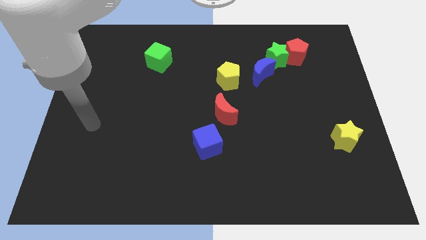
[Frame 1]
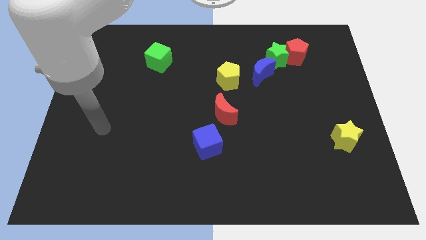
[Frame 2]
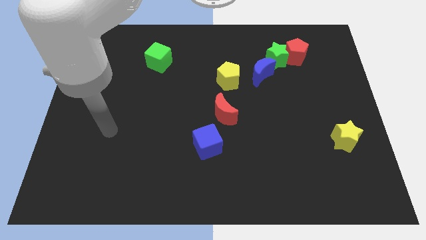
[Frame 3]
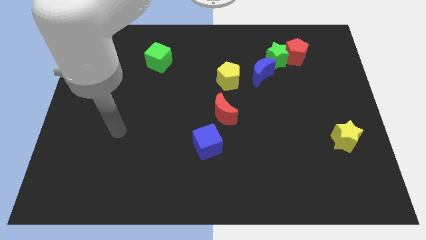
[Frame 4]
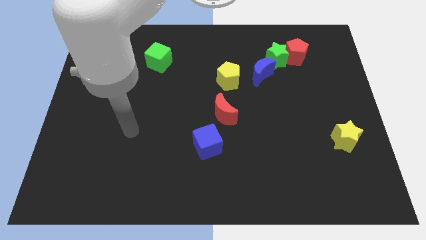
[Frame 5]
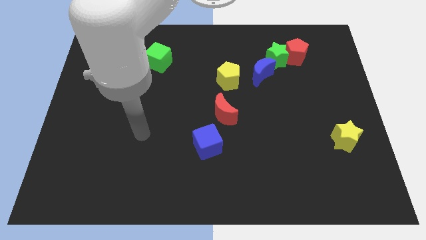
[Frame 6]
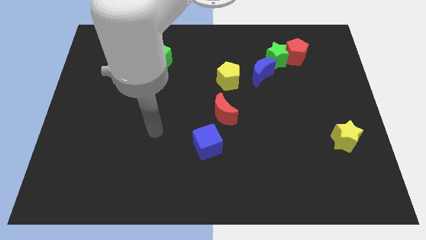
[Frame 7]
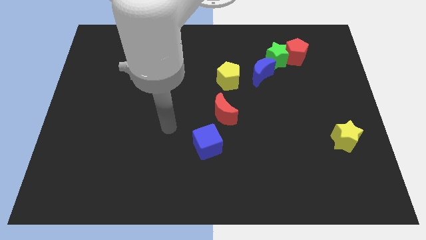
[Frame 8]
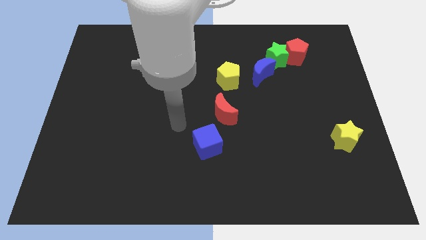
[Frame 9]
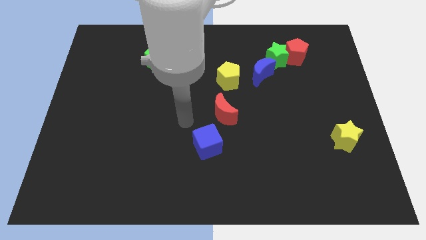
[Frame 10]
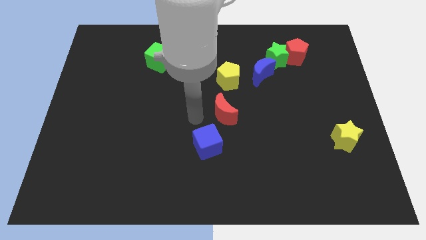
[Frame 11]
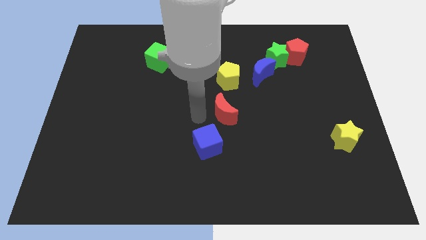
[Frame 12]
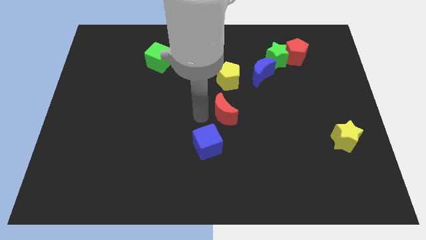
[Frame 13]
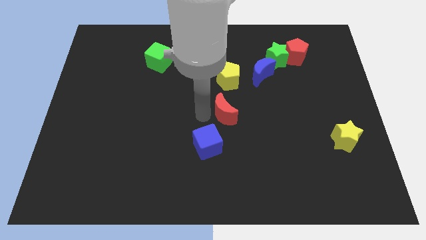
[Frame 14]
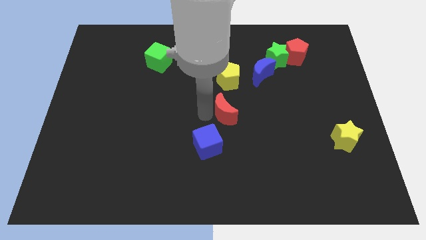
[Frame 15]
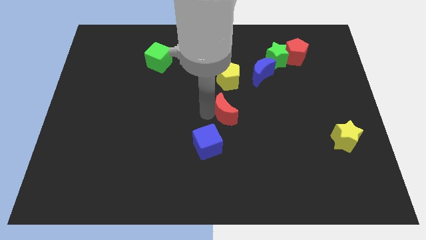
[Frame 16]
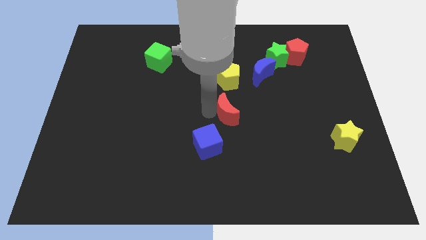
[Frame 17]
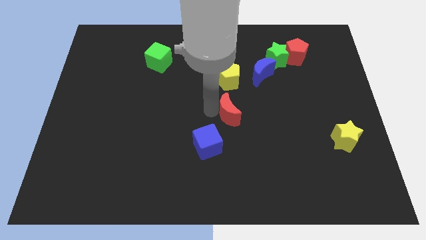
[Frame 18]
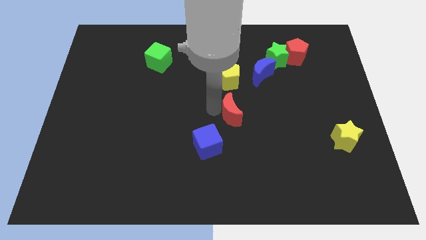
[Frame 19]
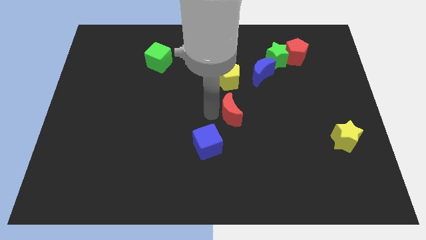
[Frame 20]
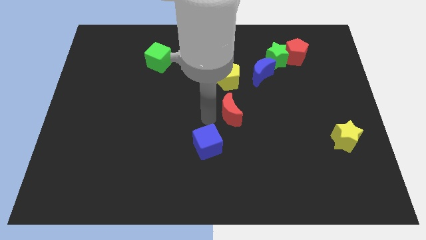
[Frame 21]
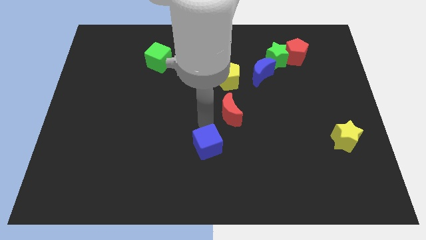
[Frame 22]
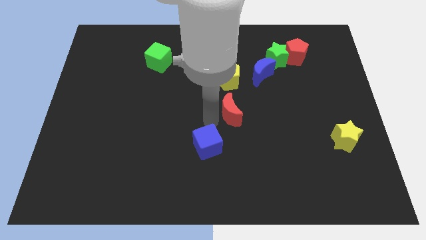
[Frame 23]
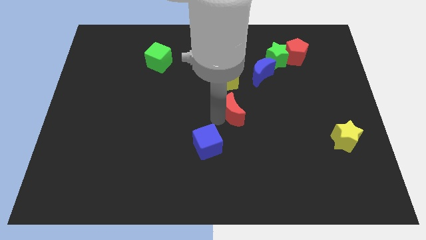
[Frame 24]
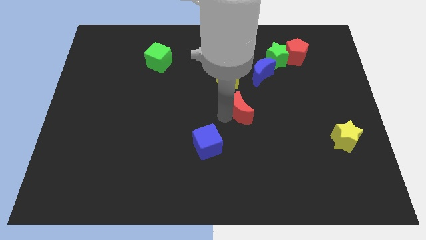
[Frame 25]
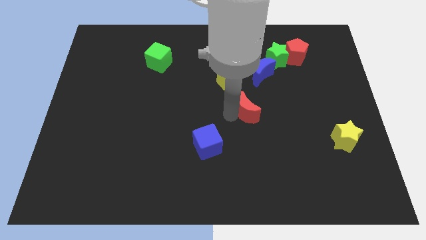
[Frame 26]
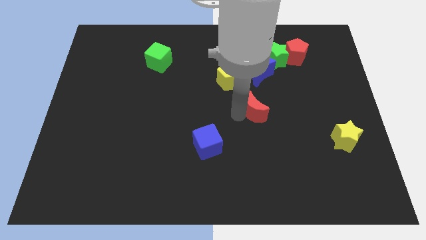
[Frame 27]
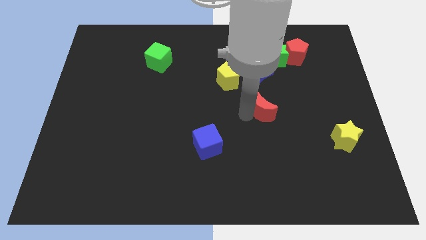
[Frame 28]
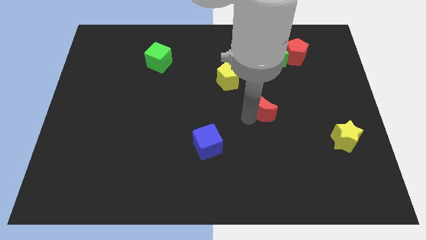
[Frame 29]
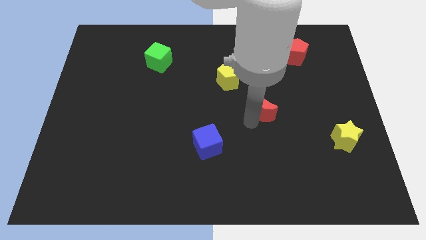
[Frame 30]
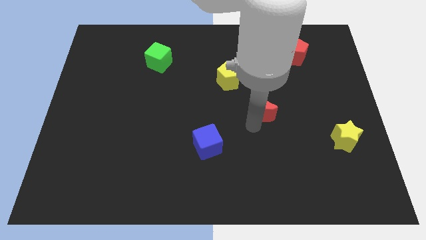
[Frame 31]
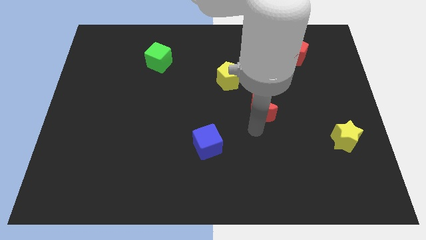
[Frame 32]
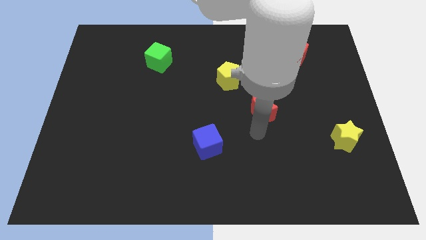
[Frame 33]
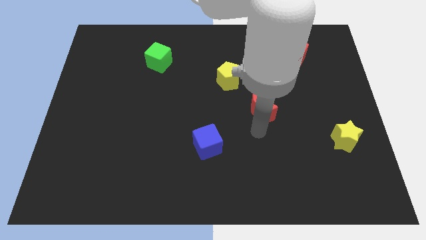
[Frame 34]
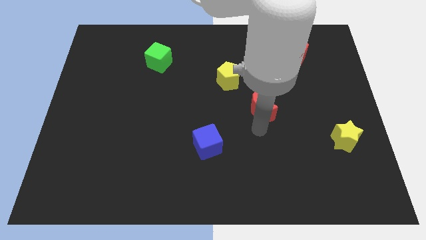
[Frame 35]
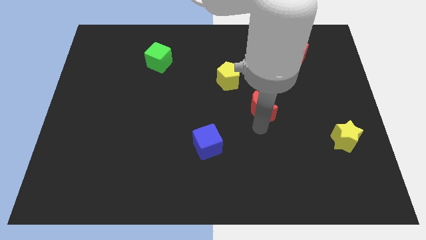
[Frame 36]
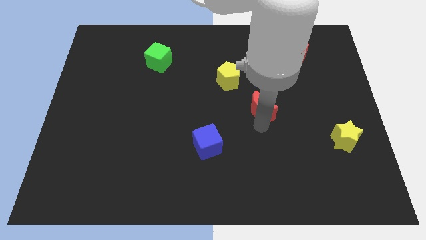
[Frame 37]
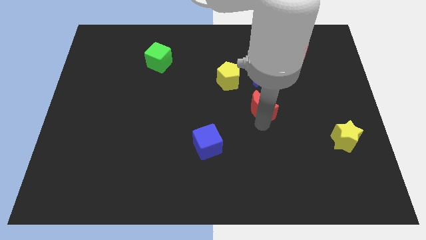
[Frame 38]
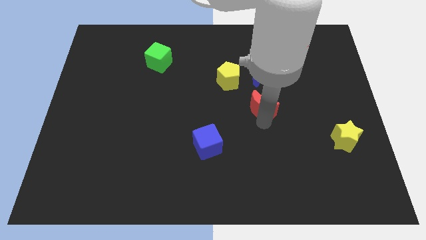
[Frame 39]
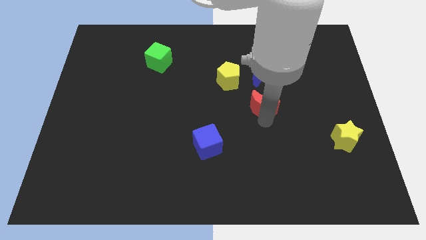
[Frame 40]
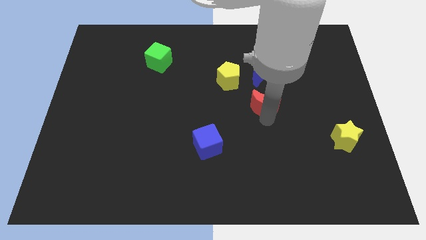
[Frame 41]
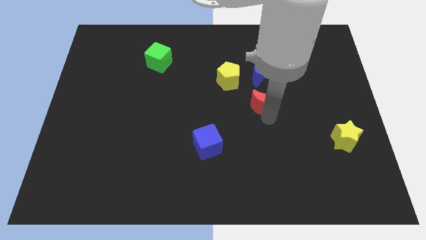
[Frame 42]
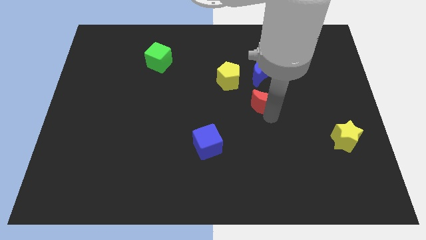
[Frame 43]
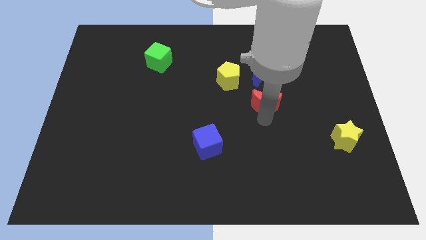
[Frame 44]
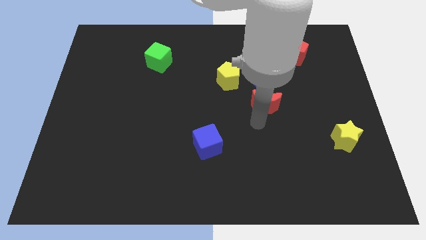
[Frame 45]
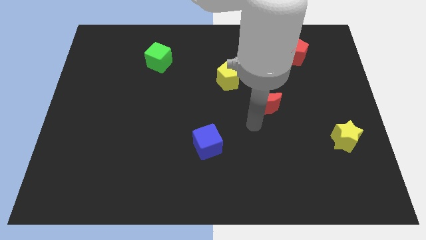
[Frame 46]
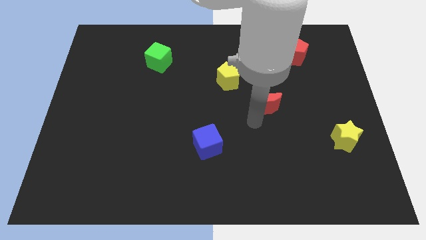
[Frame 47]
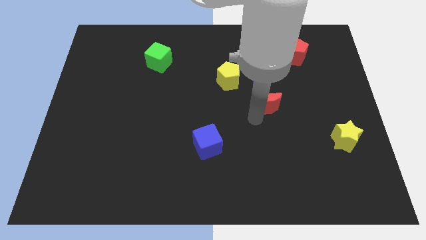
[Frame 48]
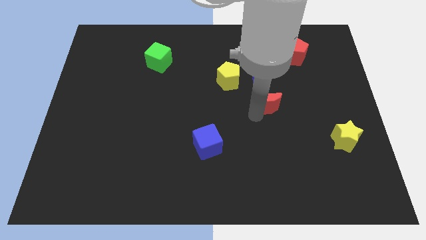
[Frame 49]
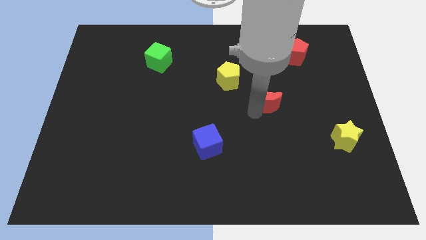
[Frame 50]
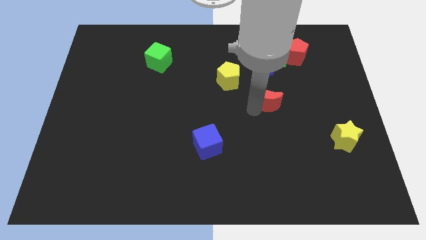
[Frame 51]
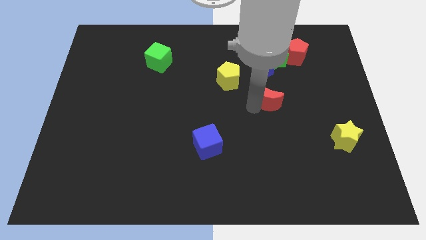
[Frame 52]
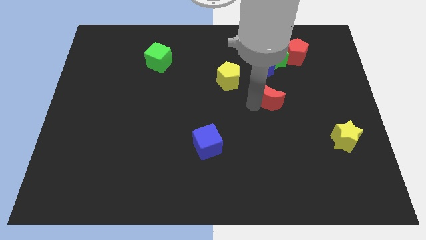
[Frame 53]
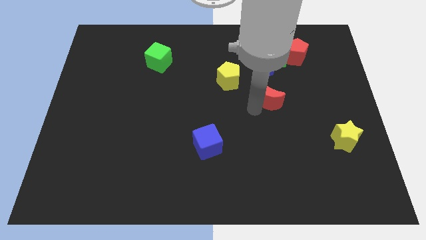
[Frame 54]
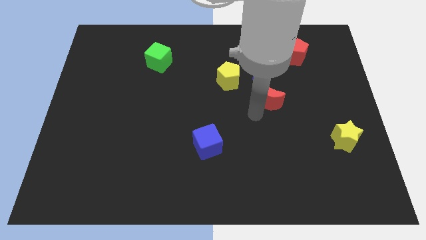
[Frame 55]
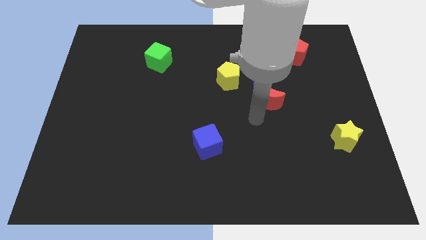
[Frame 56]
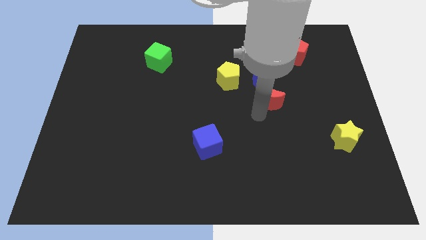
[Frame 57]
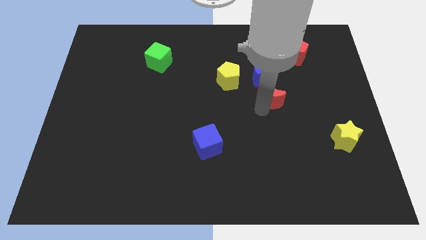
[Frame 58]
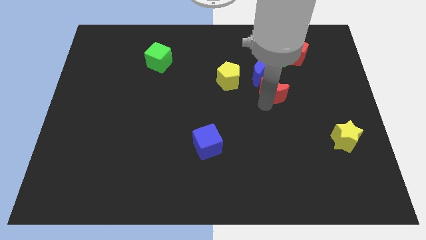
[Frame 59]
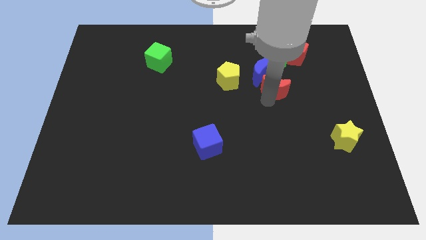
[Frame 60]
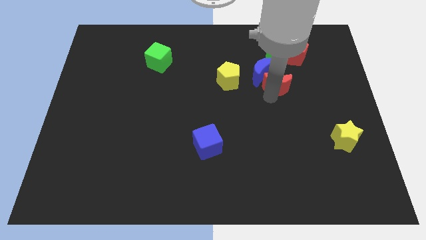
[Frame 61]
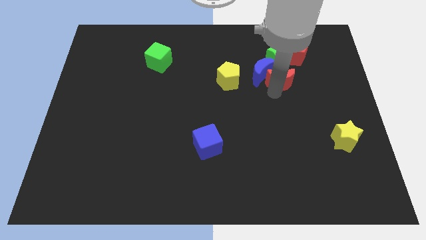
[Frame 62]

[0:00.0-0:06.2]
push the red moon to the bottom left side of the red pentagon

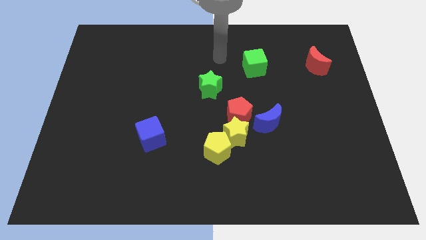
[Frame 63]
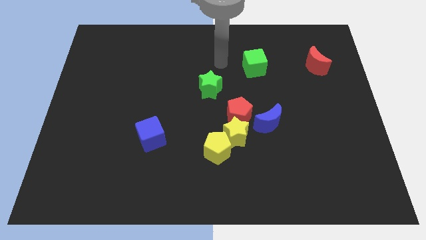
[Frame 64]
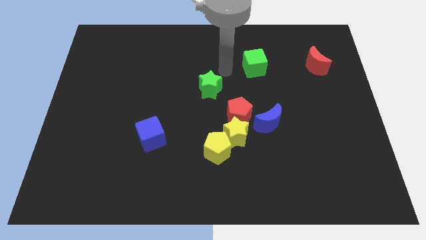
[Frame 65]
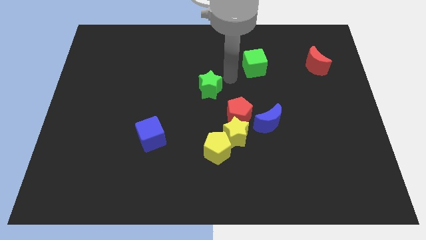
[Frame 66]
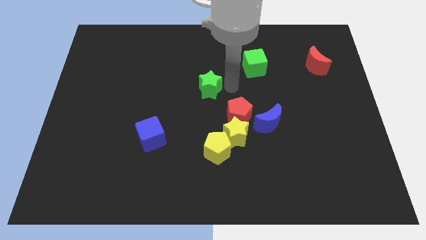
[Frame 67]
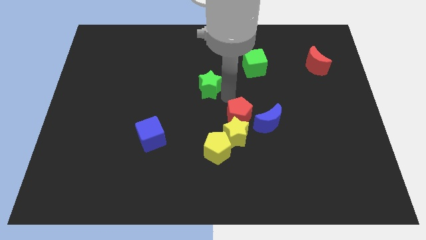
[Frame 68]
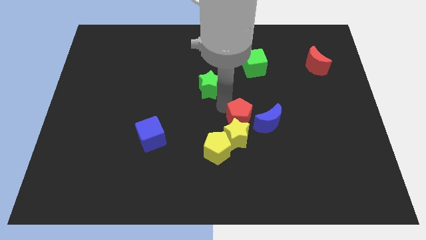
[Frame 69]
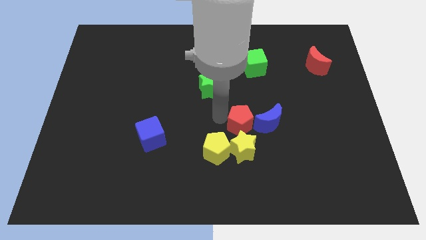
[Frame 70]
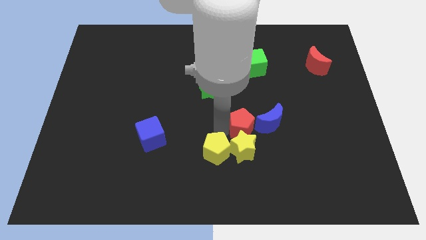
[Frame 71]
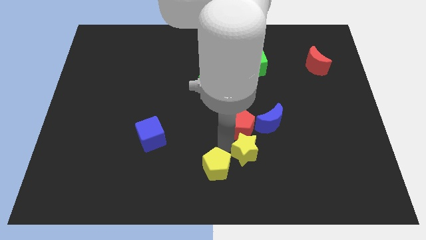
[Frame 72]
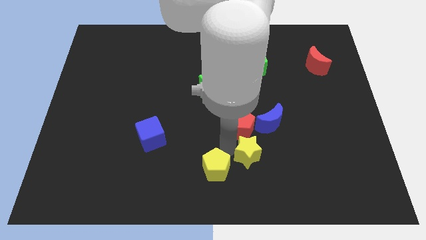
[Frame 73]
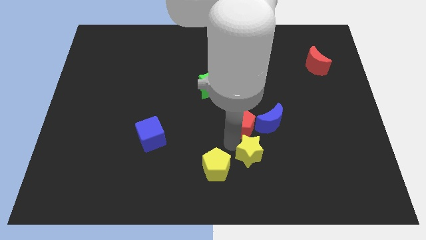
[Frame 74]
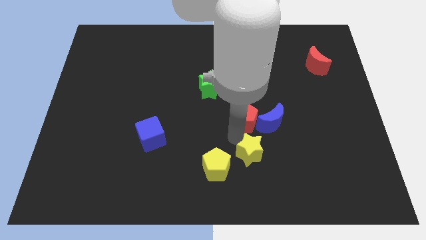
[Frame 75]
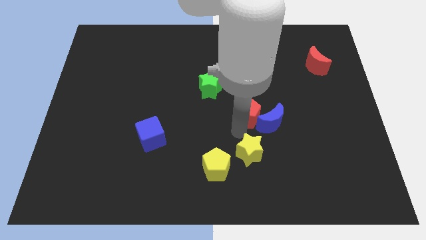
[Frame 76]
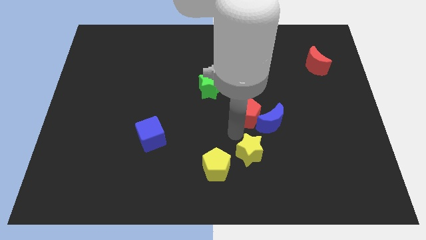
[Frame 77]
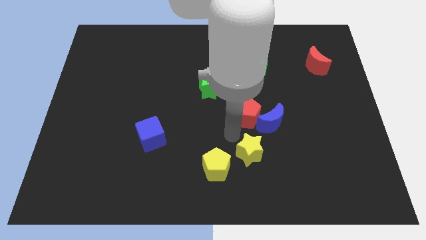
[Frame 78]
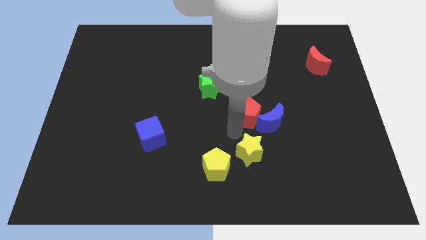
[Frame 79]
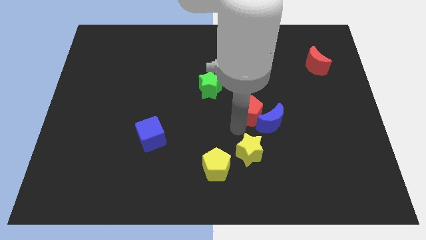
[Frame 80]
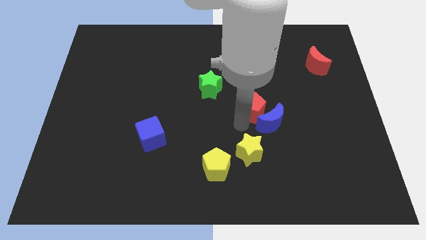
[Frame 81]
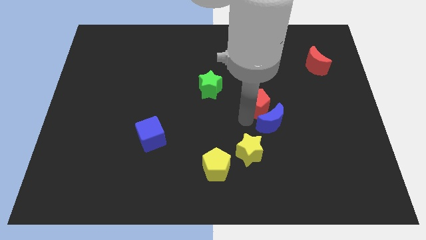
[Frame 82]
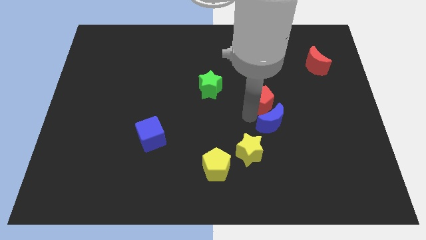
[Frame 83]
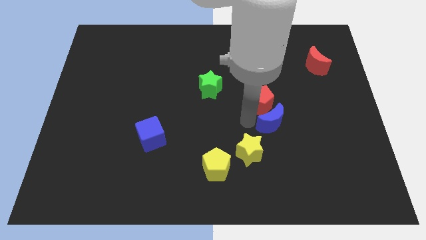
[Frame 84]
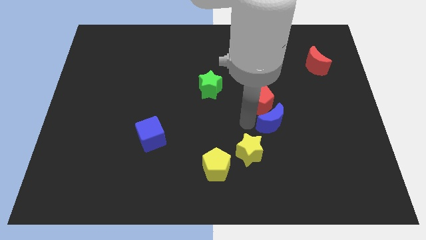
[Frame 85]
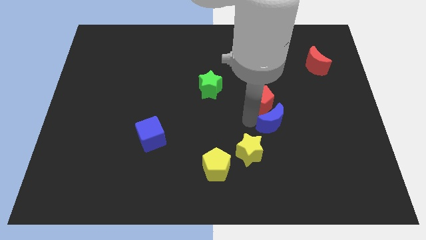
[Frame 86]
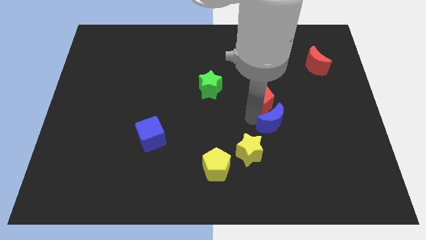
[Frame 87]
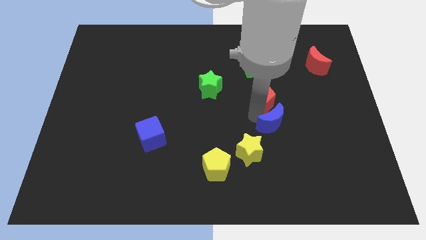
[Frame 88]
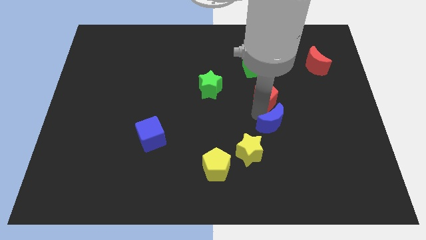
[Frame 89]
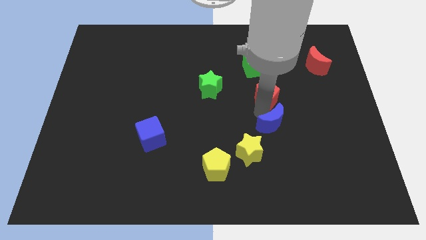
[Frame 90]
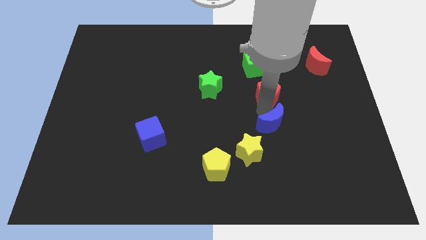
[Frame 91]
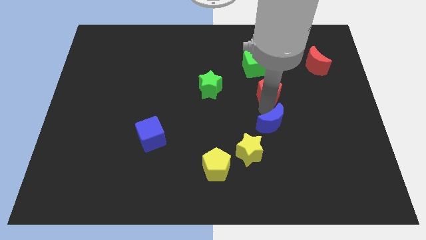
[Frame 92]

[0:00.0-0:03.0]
slide the red pentagon to the bottom right of the green cube
